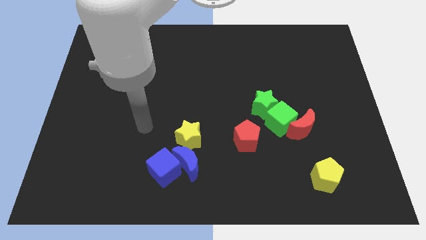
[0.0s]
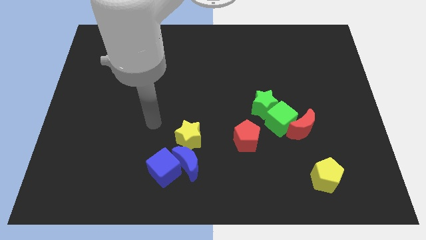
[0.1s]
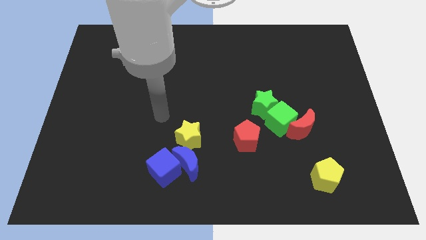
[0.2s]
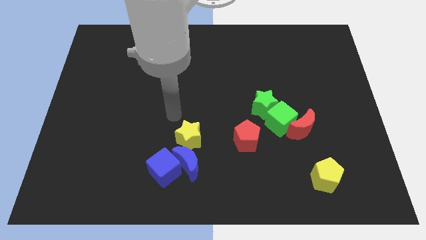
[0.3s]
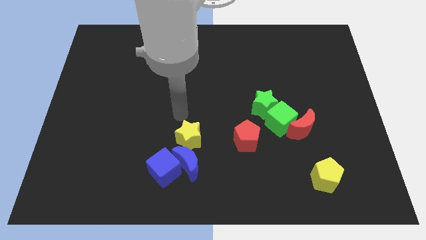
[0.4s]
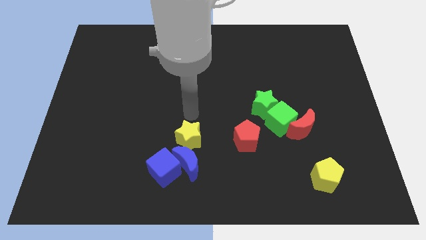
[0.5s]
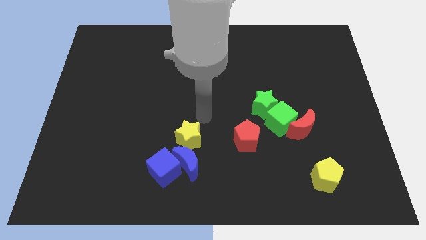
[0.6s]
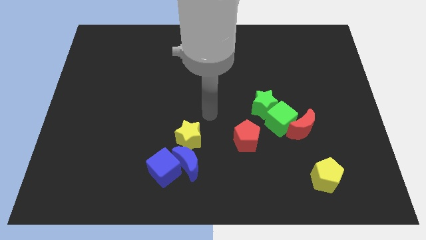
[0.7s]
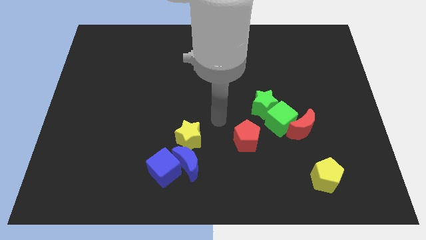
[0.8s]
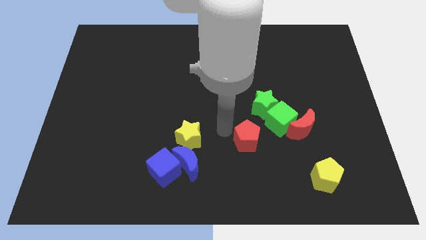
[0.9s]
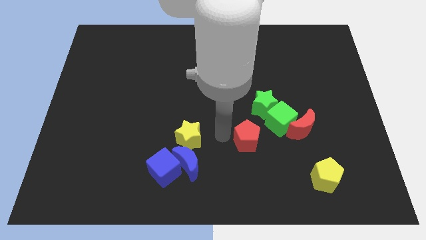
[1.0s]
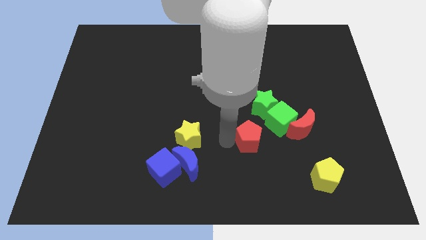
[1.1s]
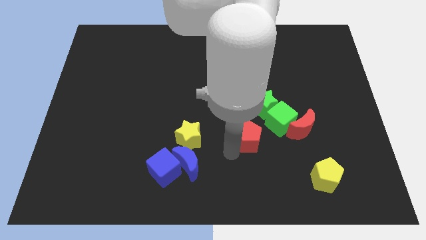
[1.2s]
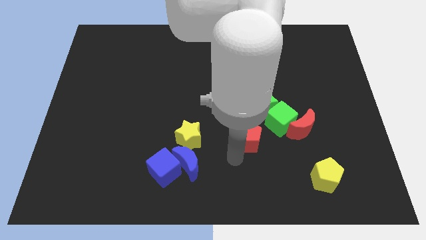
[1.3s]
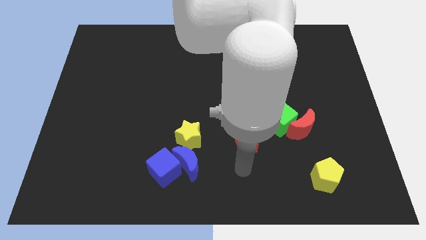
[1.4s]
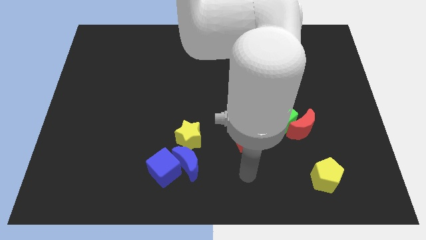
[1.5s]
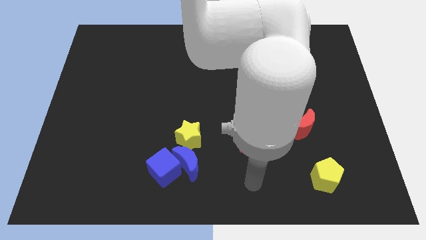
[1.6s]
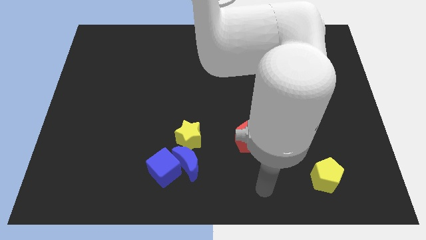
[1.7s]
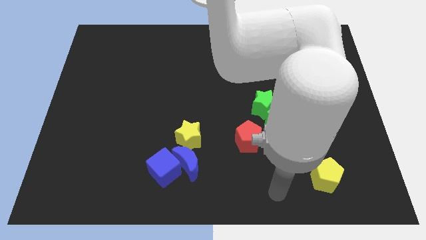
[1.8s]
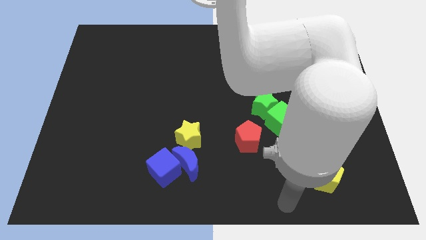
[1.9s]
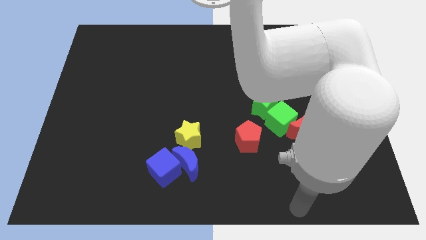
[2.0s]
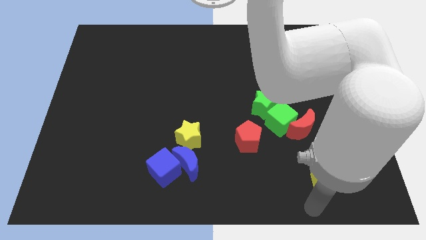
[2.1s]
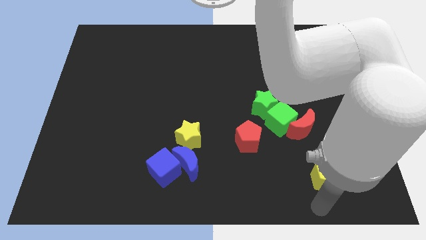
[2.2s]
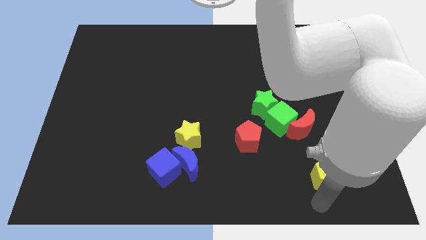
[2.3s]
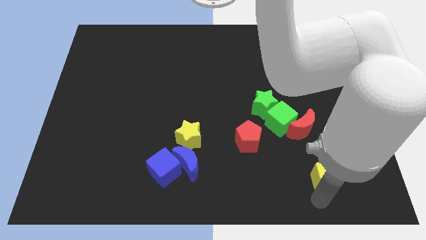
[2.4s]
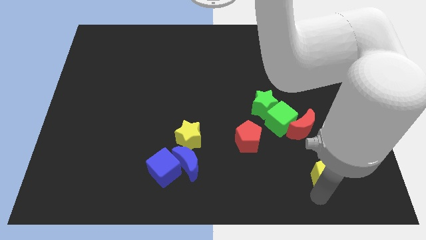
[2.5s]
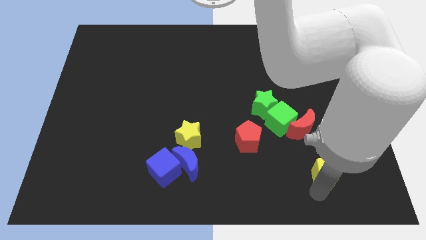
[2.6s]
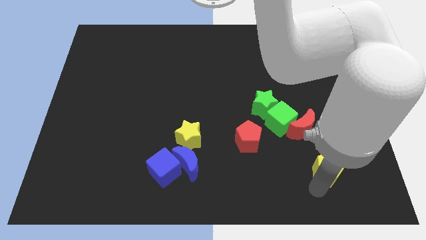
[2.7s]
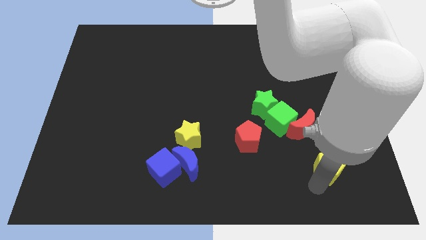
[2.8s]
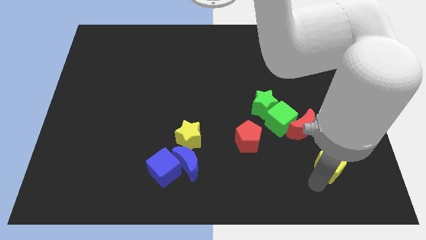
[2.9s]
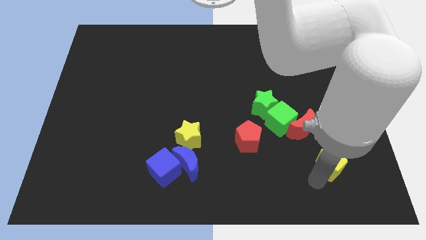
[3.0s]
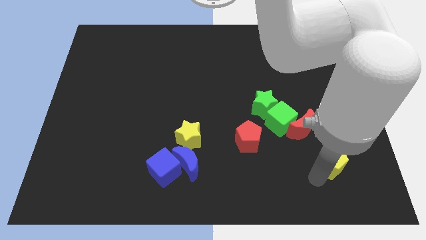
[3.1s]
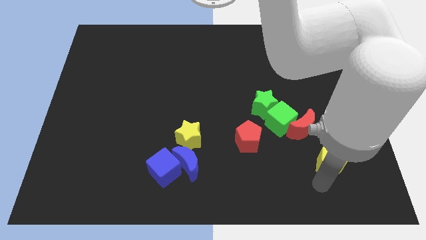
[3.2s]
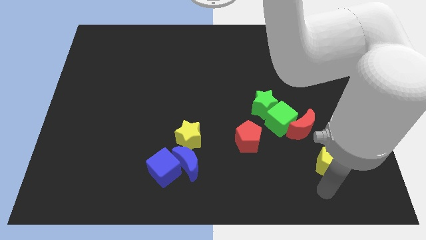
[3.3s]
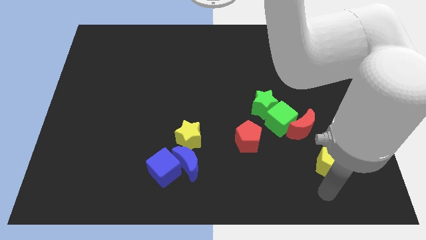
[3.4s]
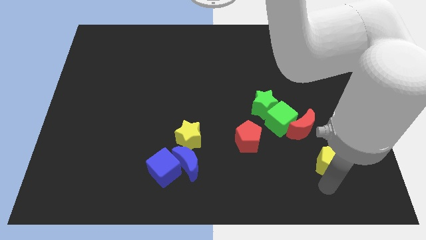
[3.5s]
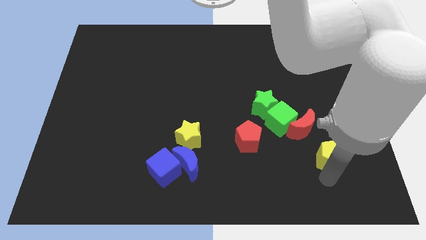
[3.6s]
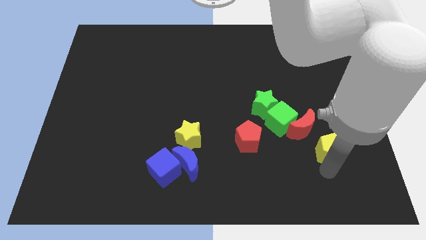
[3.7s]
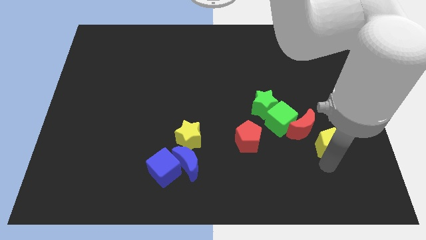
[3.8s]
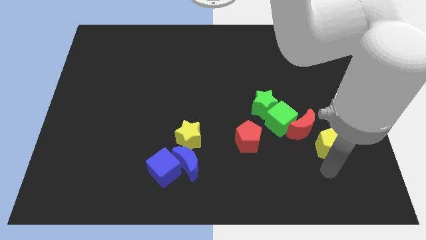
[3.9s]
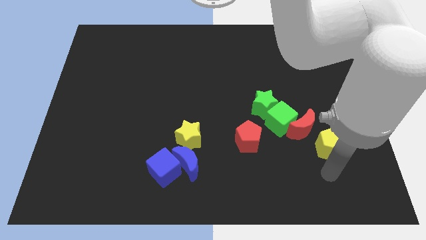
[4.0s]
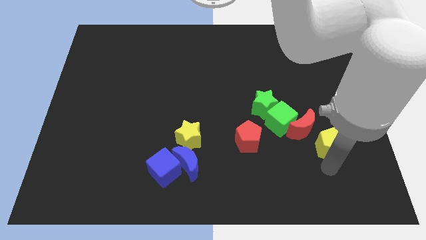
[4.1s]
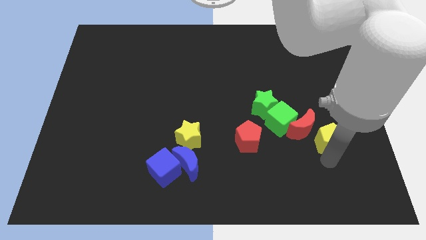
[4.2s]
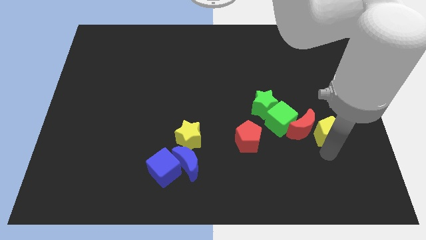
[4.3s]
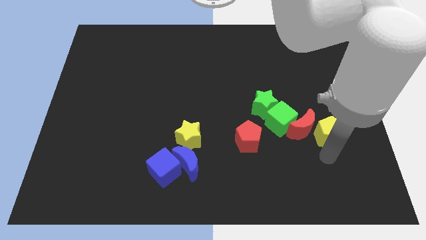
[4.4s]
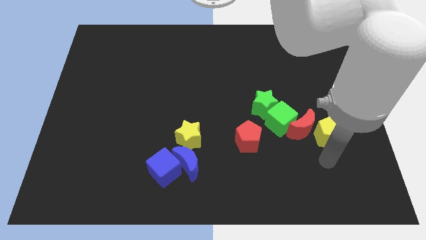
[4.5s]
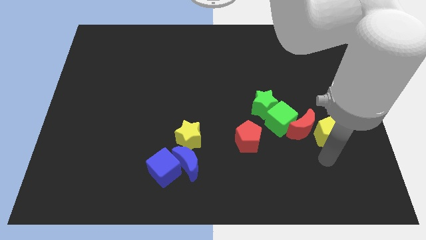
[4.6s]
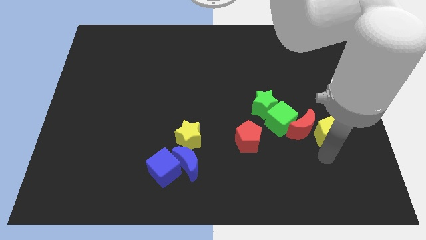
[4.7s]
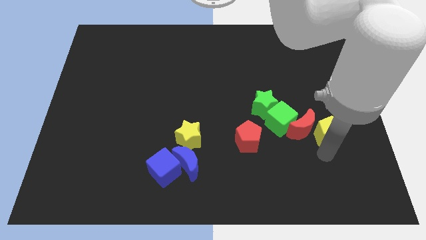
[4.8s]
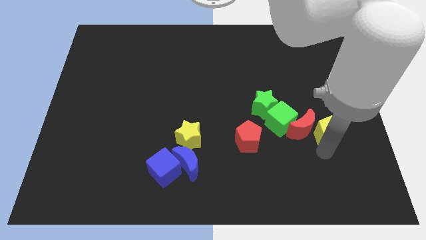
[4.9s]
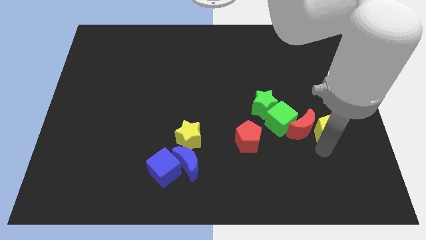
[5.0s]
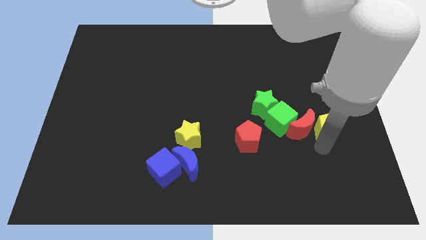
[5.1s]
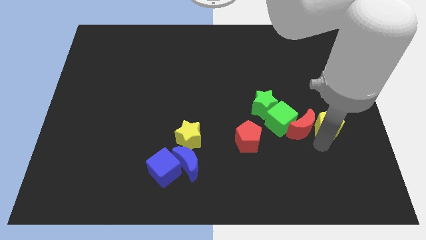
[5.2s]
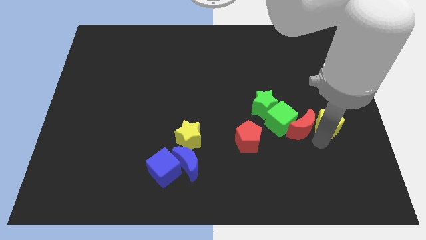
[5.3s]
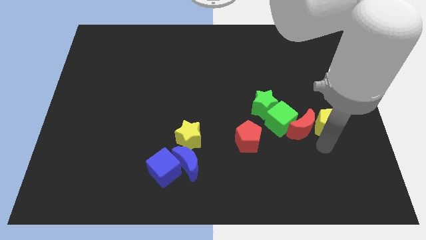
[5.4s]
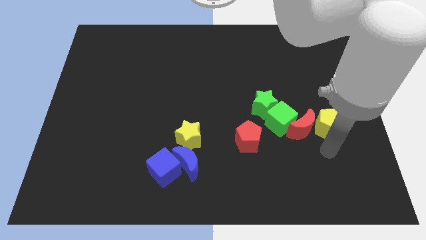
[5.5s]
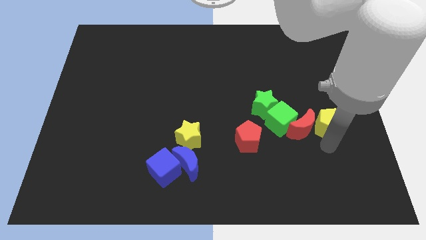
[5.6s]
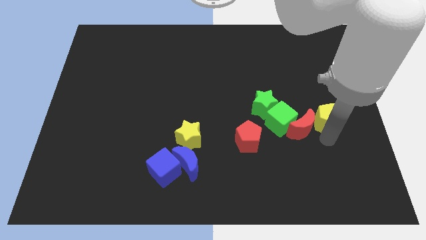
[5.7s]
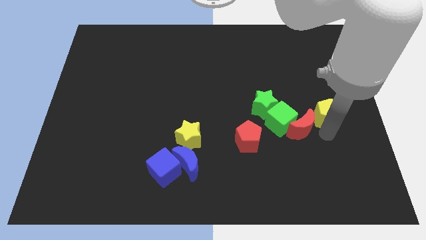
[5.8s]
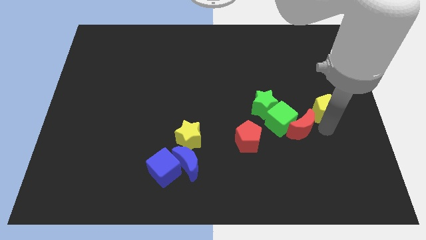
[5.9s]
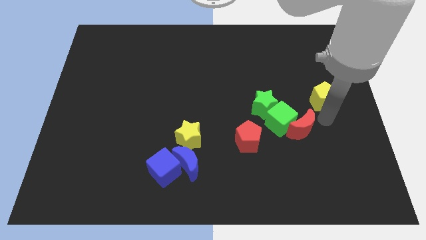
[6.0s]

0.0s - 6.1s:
push the yellow pentagon up

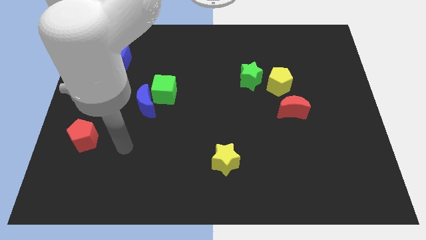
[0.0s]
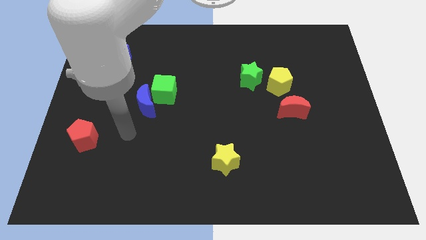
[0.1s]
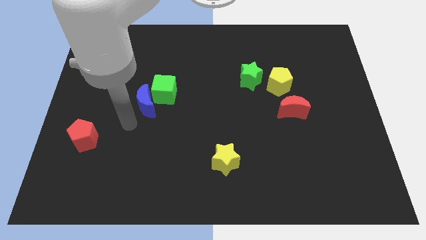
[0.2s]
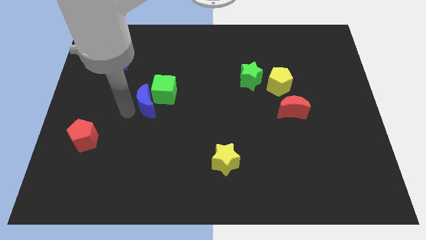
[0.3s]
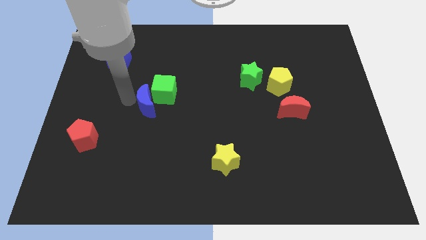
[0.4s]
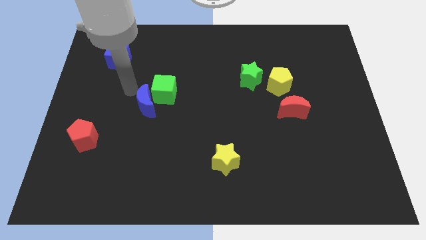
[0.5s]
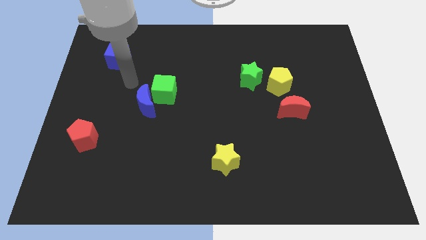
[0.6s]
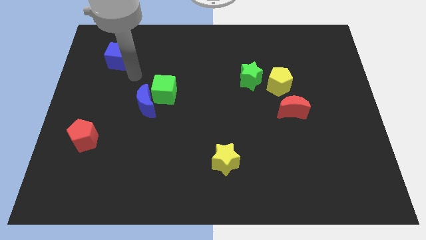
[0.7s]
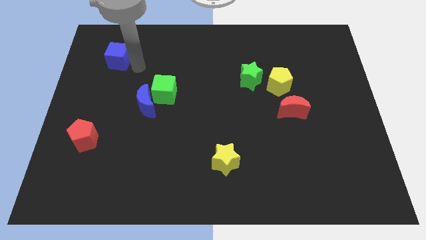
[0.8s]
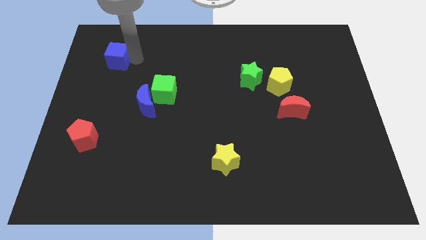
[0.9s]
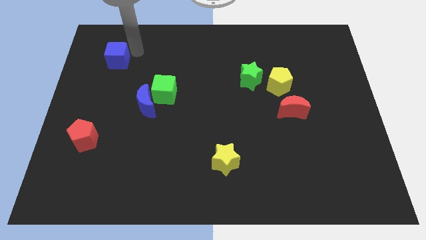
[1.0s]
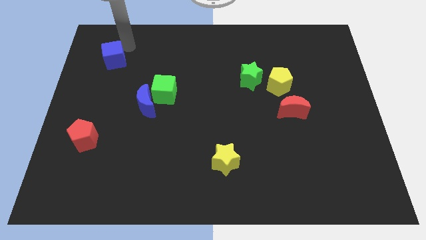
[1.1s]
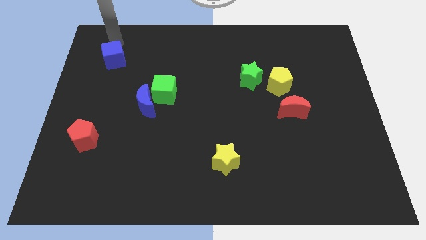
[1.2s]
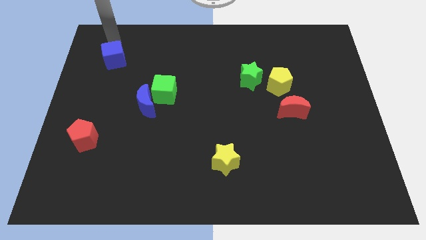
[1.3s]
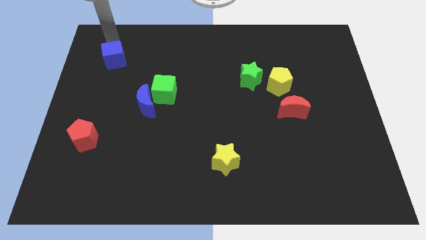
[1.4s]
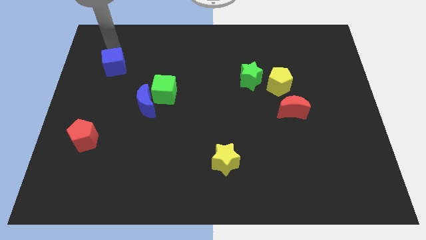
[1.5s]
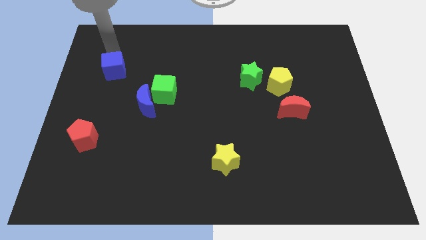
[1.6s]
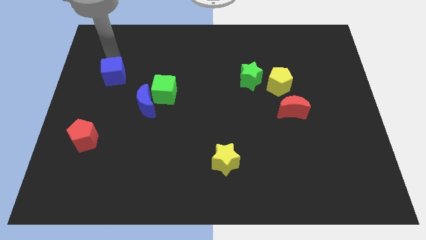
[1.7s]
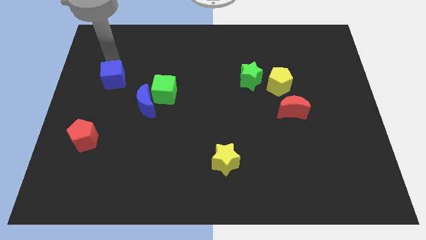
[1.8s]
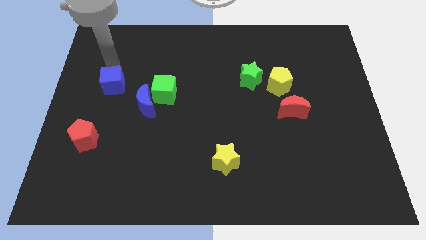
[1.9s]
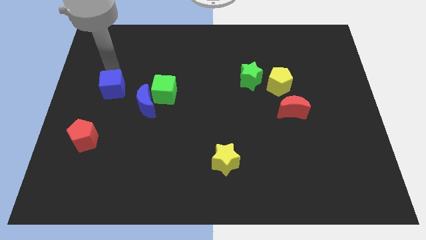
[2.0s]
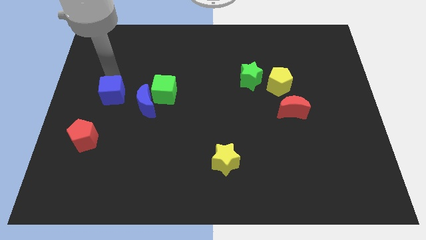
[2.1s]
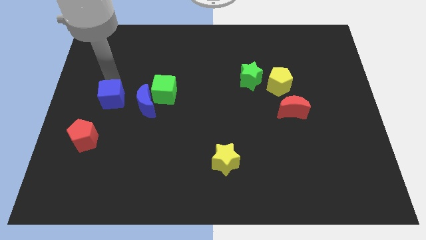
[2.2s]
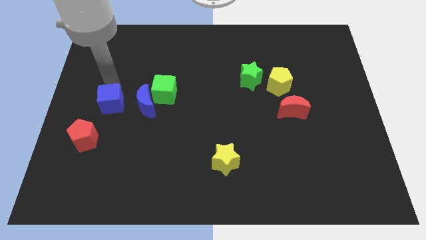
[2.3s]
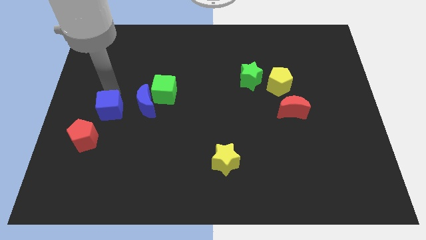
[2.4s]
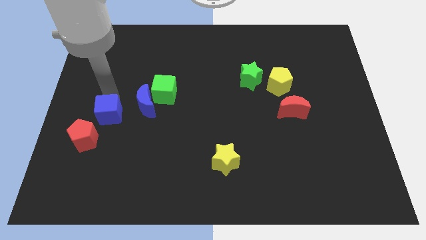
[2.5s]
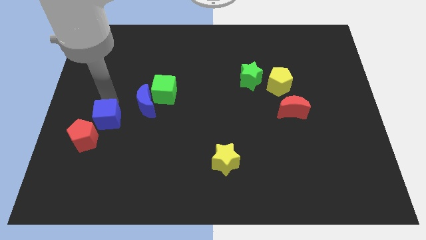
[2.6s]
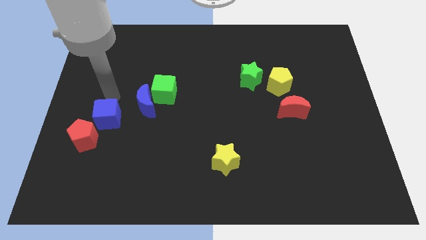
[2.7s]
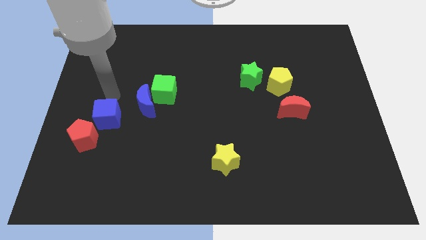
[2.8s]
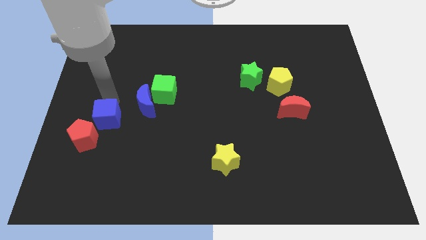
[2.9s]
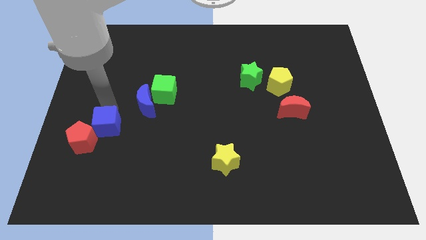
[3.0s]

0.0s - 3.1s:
move the blue cube down
